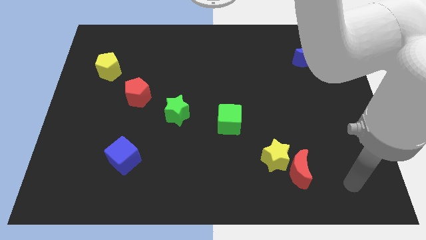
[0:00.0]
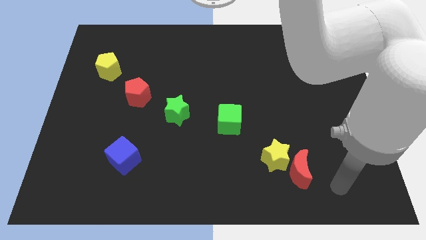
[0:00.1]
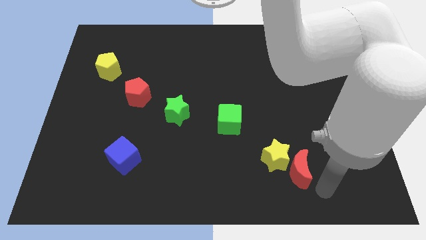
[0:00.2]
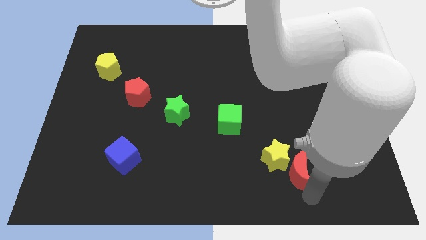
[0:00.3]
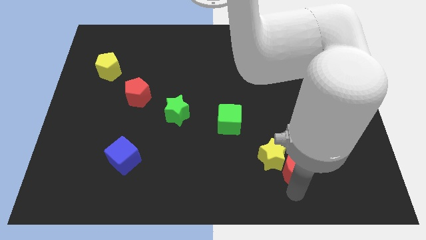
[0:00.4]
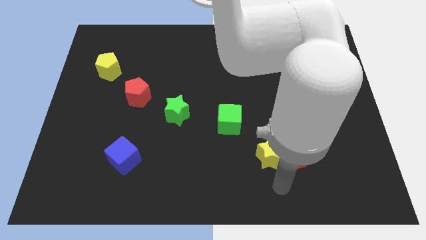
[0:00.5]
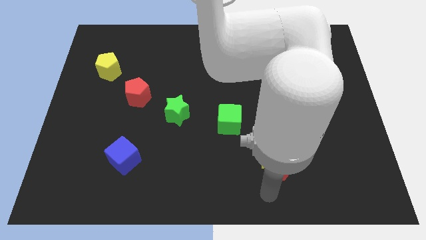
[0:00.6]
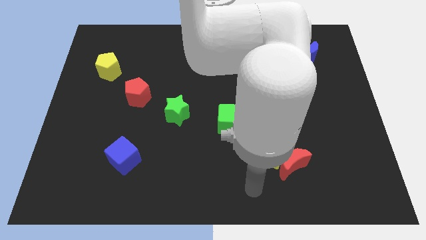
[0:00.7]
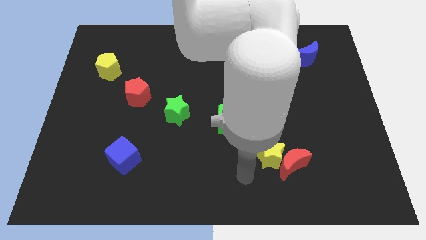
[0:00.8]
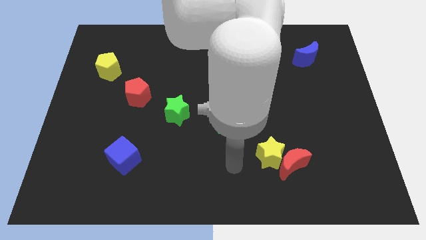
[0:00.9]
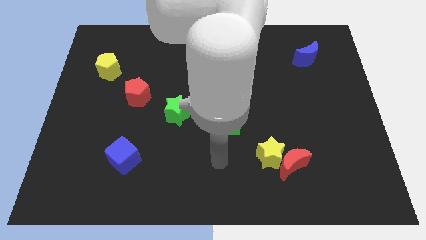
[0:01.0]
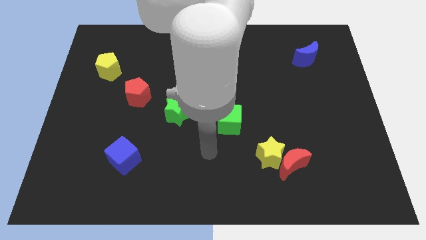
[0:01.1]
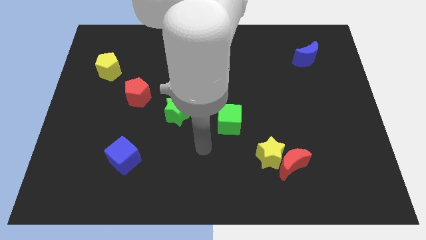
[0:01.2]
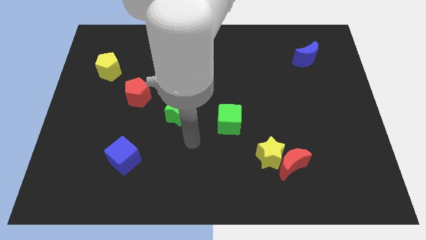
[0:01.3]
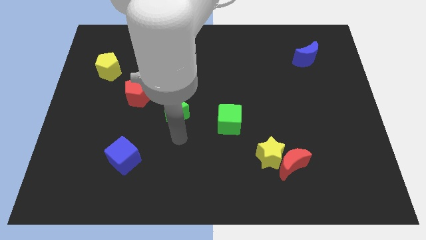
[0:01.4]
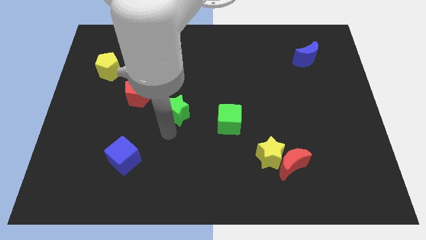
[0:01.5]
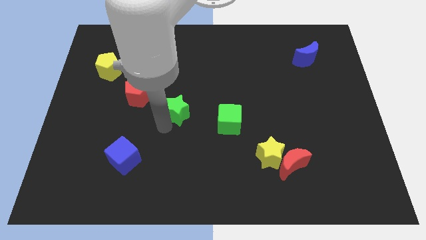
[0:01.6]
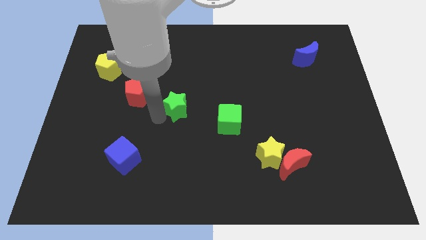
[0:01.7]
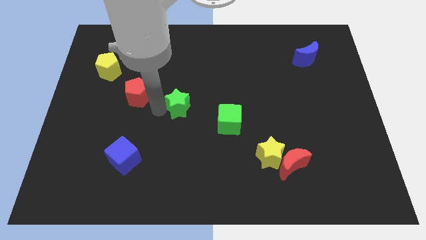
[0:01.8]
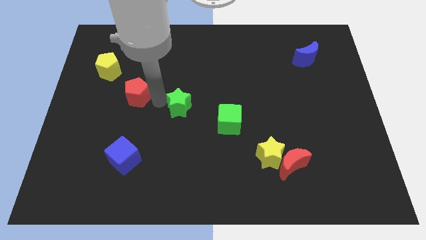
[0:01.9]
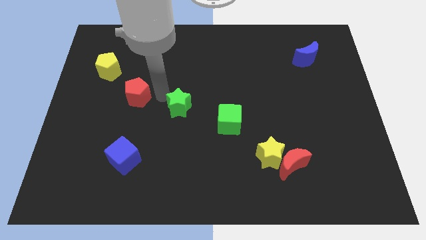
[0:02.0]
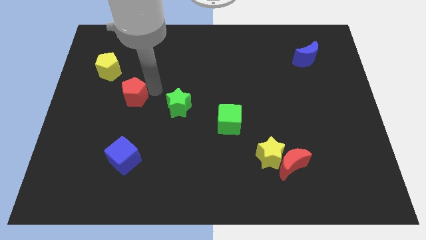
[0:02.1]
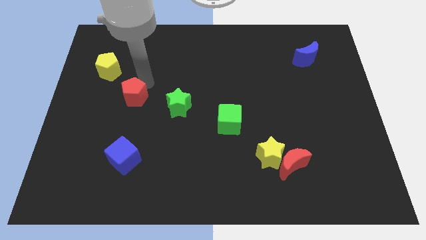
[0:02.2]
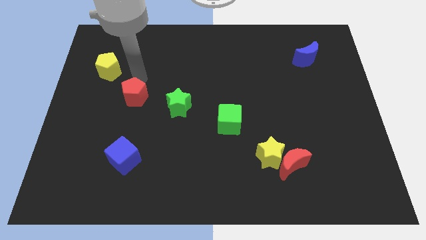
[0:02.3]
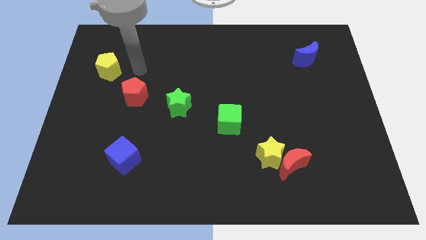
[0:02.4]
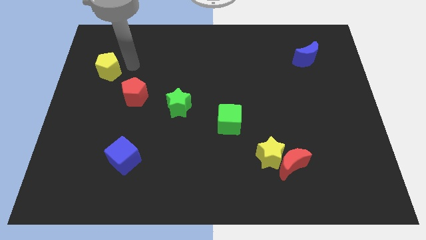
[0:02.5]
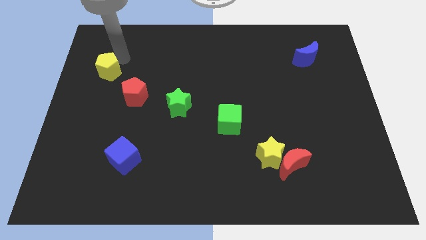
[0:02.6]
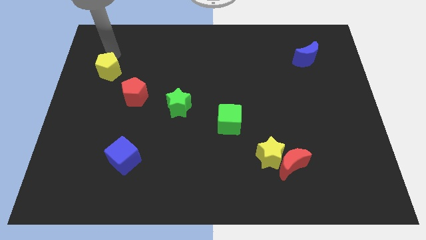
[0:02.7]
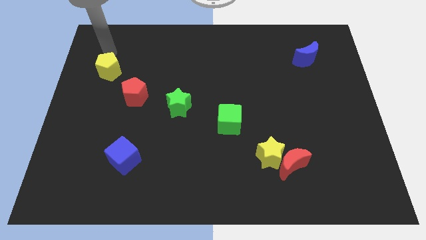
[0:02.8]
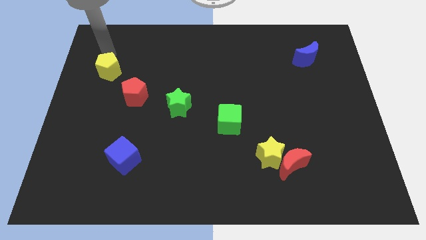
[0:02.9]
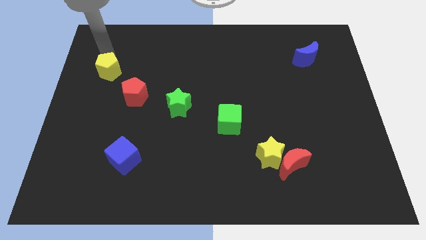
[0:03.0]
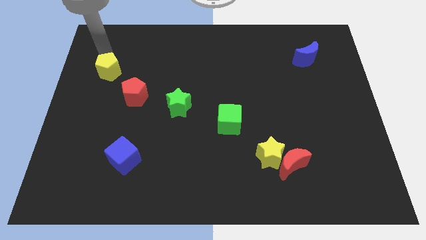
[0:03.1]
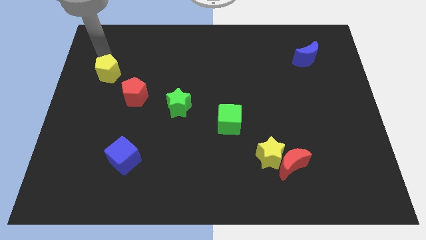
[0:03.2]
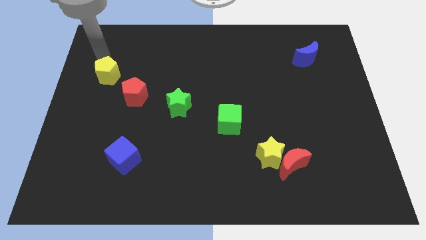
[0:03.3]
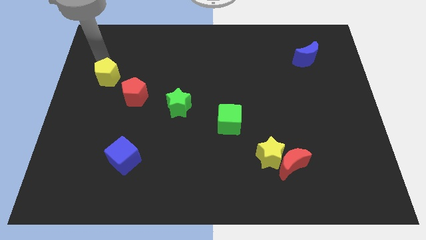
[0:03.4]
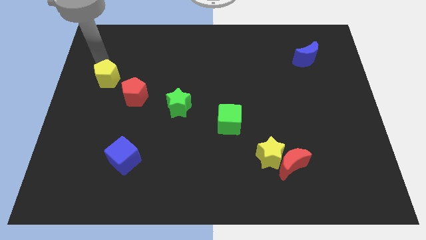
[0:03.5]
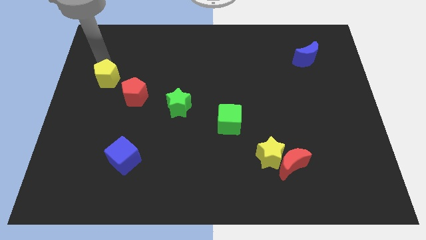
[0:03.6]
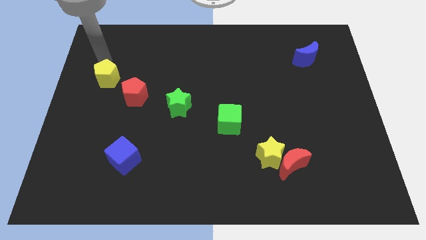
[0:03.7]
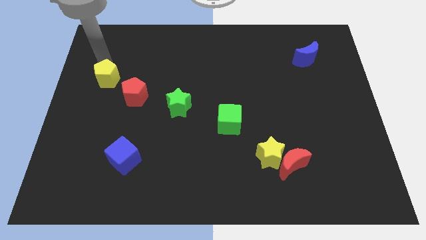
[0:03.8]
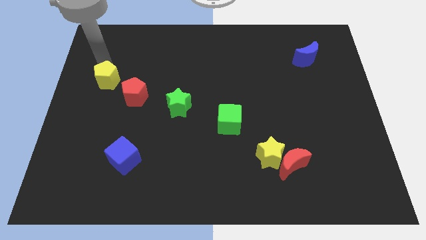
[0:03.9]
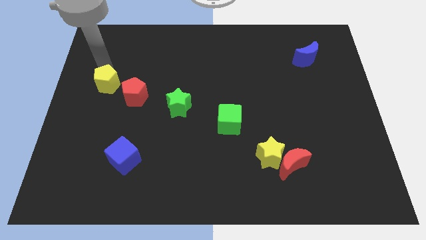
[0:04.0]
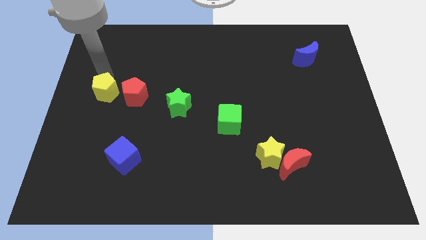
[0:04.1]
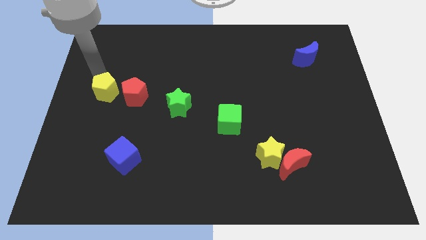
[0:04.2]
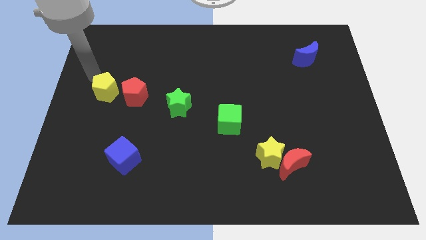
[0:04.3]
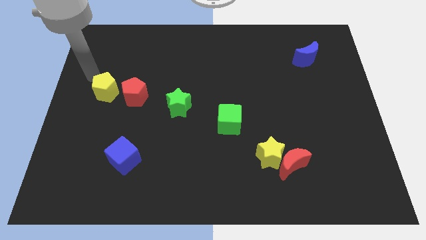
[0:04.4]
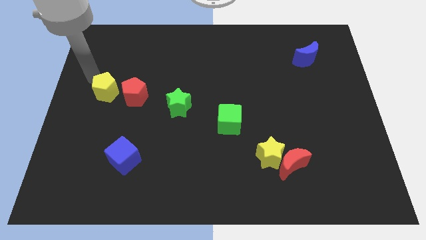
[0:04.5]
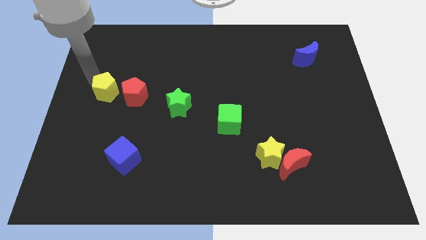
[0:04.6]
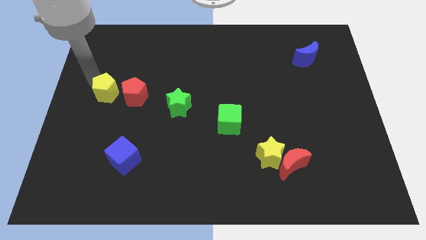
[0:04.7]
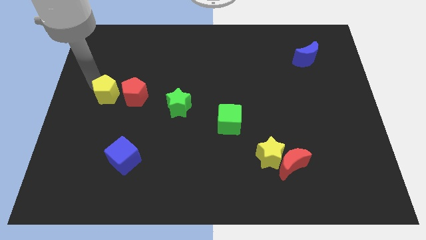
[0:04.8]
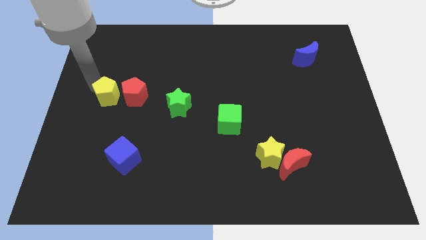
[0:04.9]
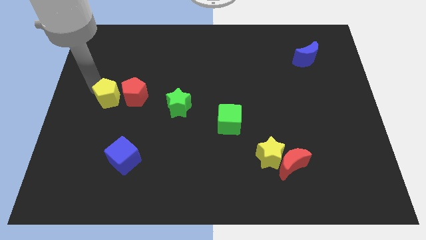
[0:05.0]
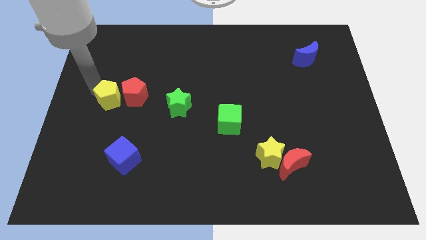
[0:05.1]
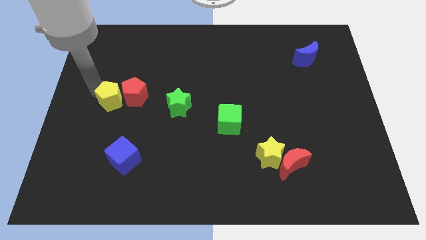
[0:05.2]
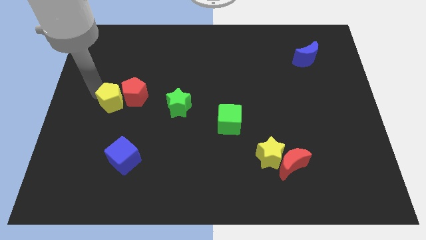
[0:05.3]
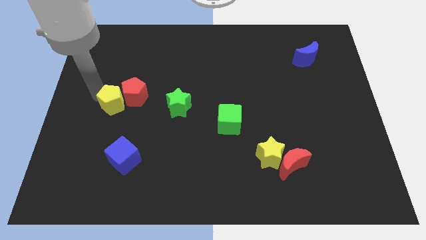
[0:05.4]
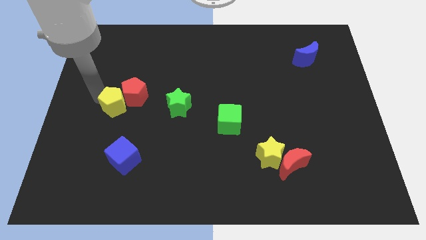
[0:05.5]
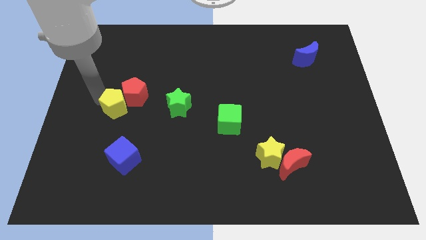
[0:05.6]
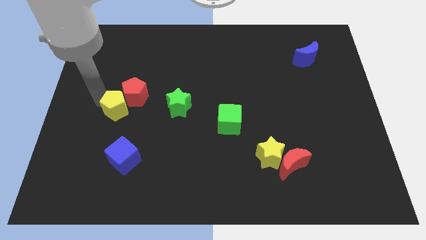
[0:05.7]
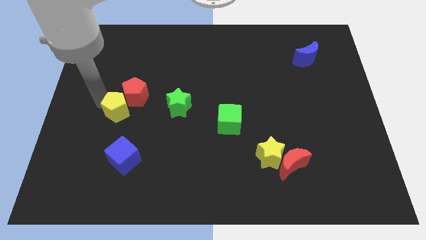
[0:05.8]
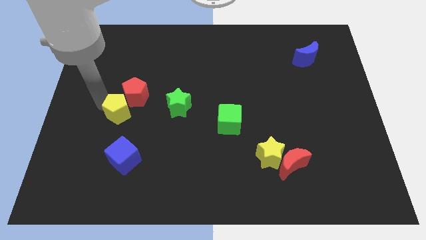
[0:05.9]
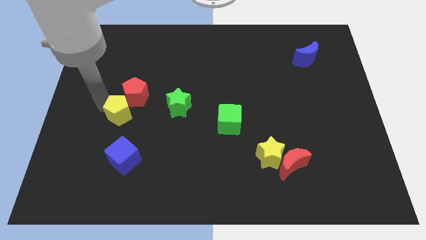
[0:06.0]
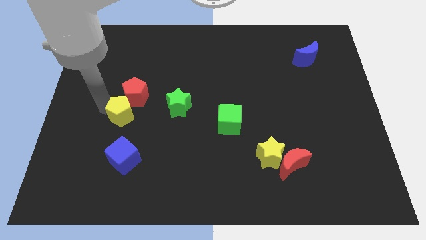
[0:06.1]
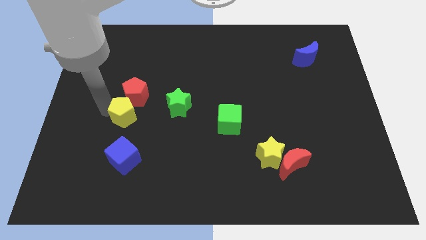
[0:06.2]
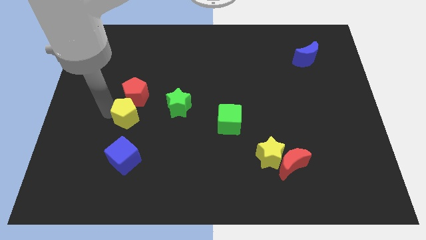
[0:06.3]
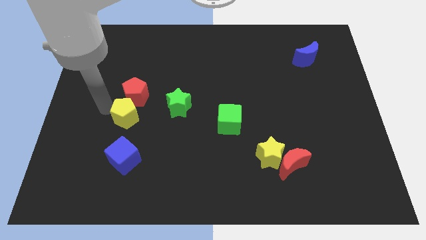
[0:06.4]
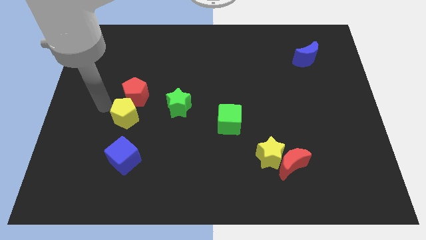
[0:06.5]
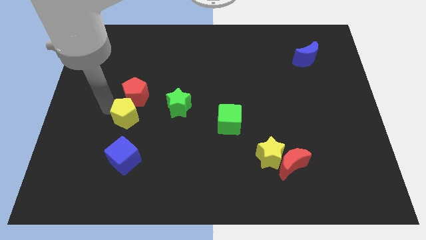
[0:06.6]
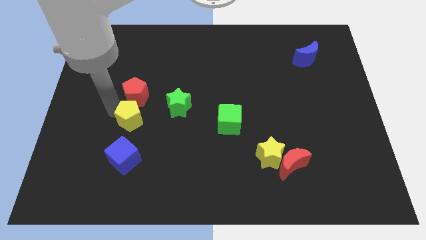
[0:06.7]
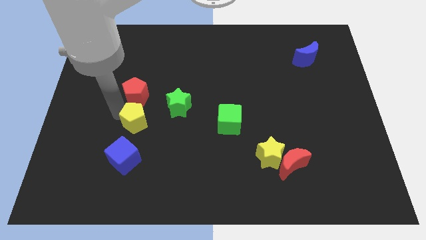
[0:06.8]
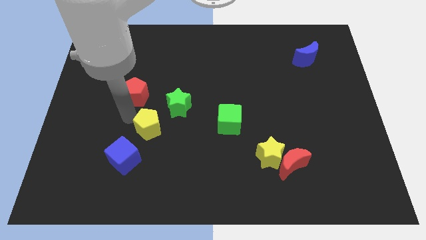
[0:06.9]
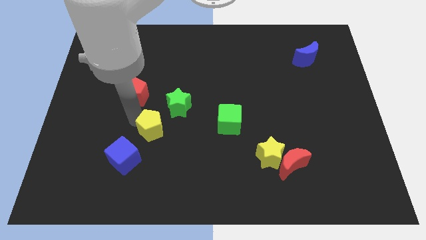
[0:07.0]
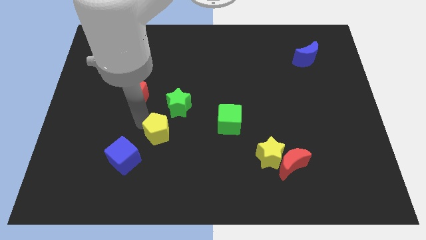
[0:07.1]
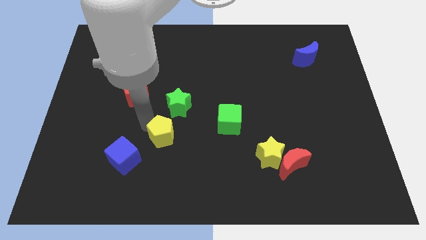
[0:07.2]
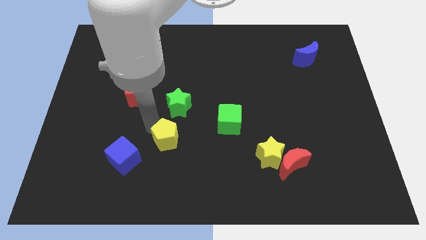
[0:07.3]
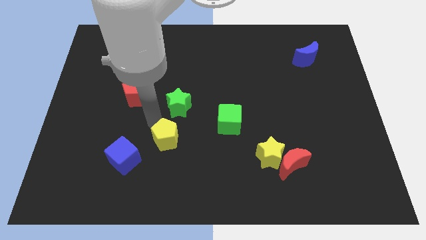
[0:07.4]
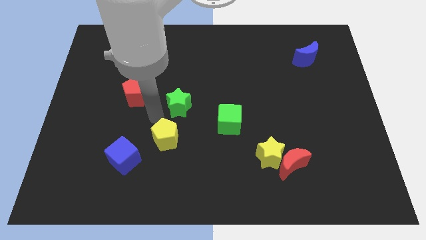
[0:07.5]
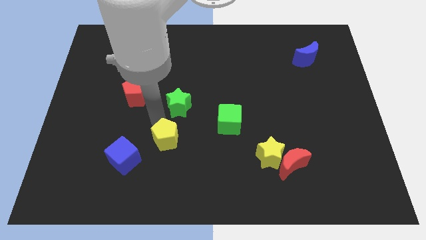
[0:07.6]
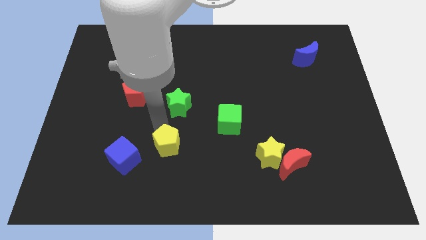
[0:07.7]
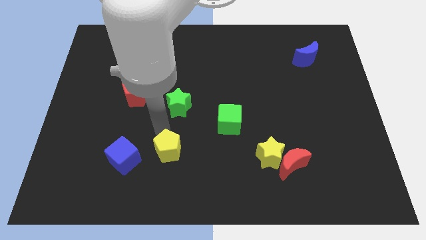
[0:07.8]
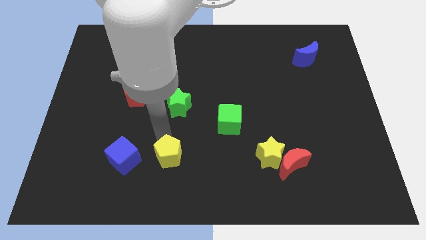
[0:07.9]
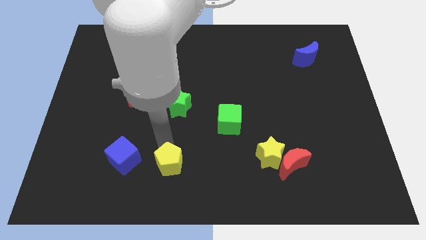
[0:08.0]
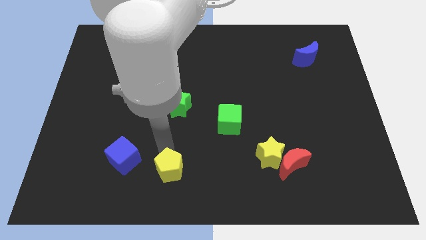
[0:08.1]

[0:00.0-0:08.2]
push the yellow pentagon to the bottom side
